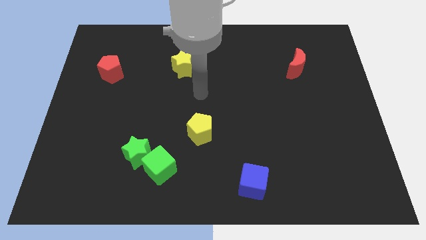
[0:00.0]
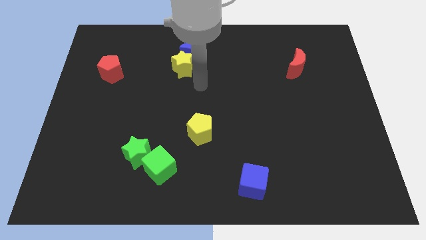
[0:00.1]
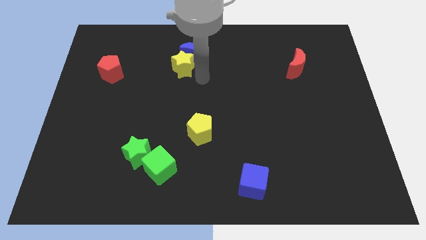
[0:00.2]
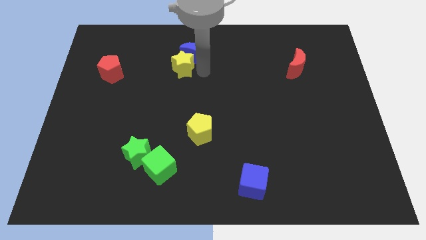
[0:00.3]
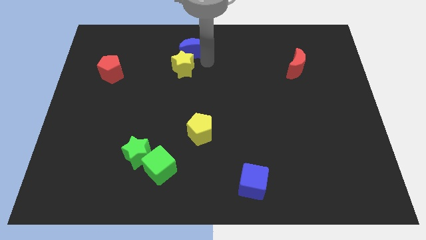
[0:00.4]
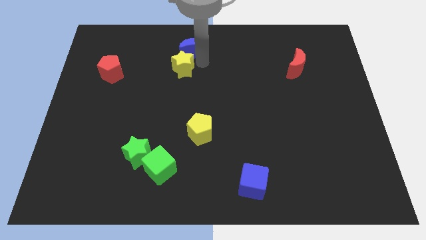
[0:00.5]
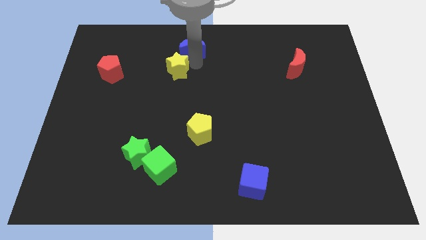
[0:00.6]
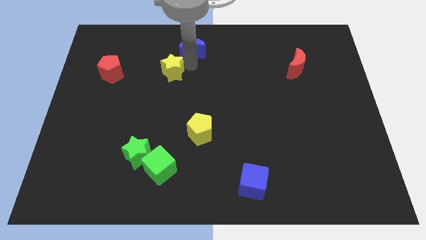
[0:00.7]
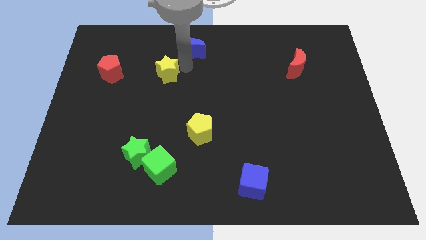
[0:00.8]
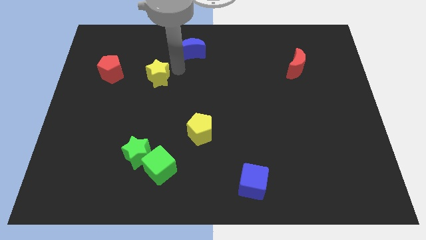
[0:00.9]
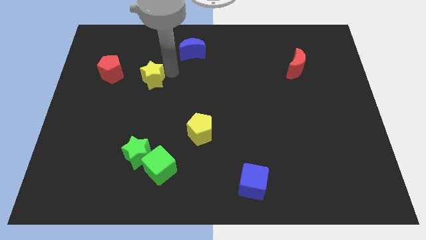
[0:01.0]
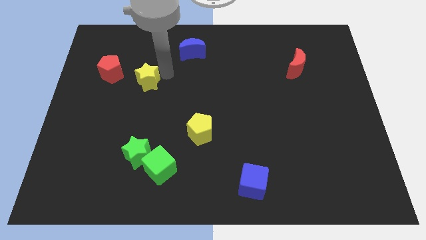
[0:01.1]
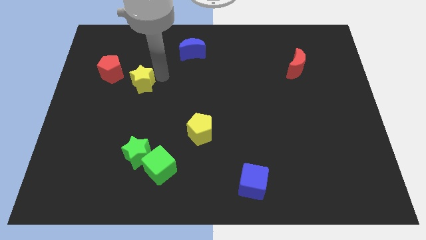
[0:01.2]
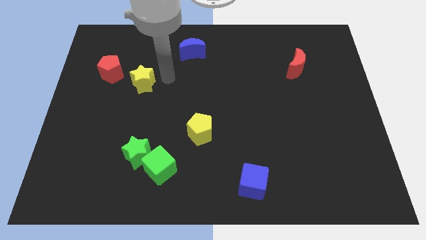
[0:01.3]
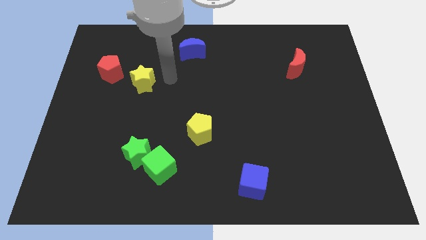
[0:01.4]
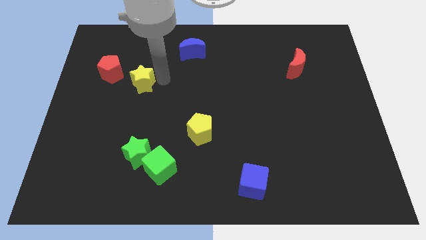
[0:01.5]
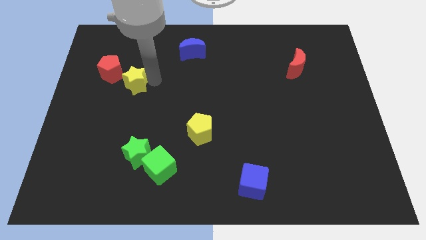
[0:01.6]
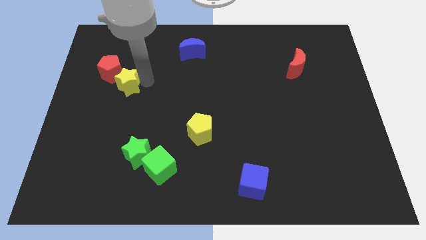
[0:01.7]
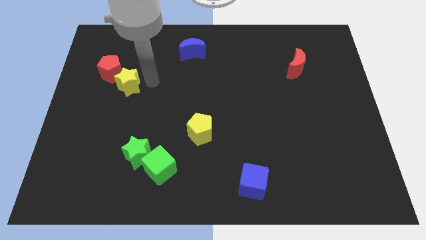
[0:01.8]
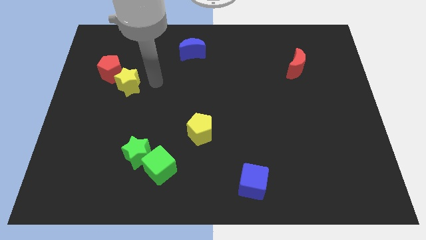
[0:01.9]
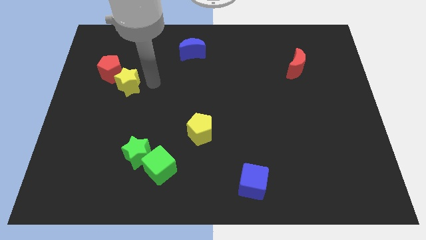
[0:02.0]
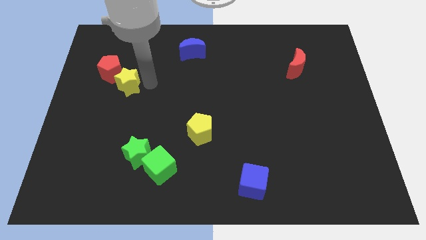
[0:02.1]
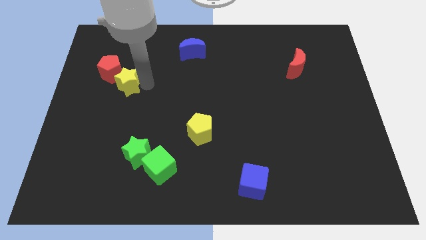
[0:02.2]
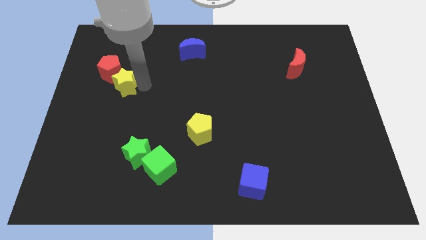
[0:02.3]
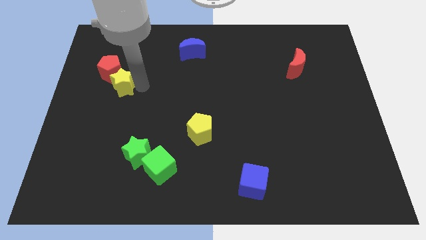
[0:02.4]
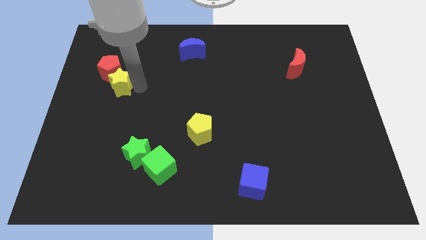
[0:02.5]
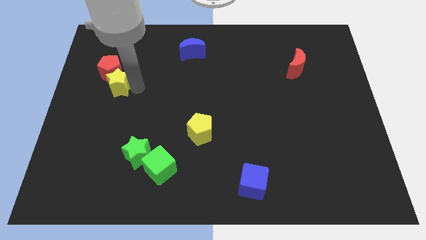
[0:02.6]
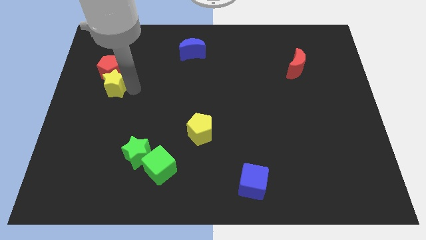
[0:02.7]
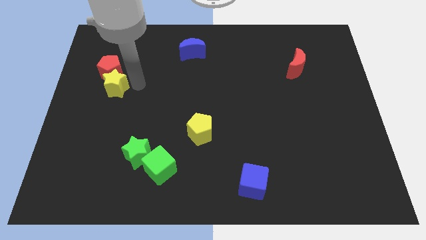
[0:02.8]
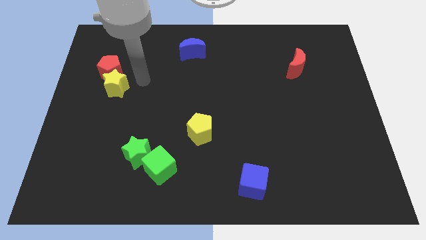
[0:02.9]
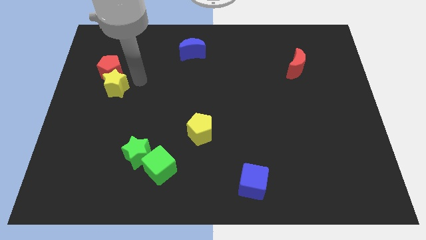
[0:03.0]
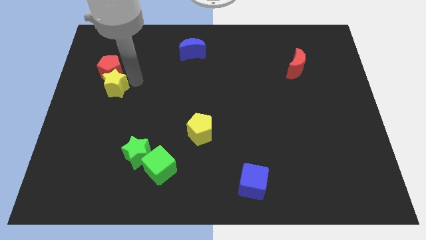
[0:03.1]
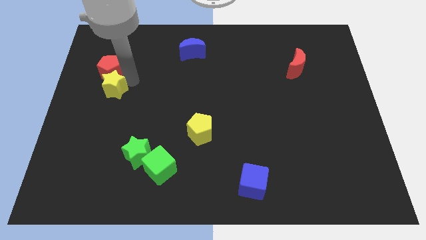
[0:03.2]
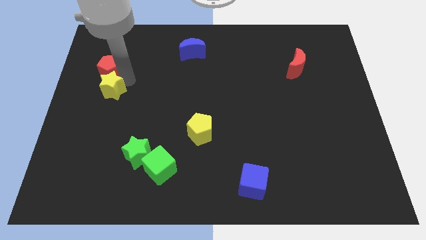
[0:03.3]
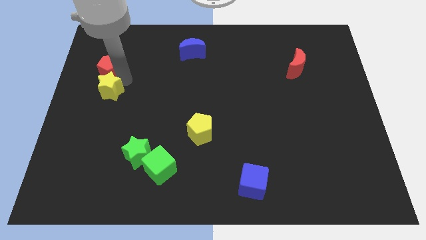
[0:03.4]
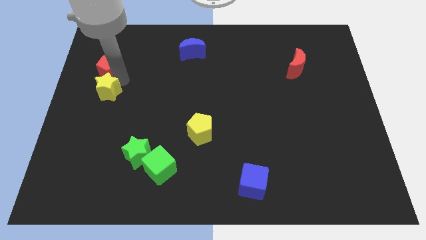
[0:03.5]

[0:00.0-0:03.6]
push the yellow star to the left side of the board

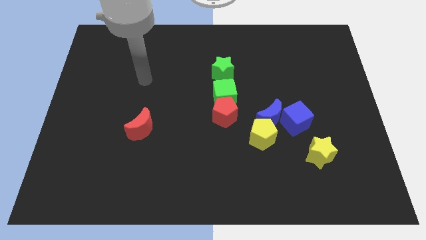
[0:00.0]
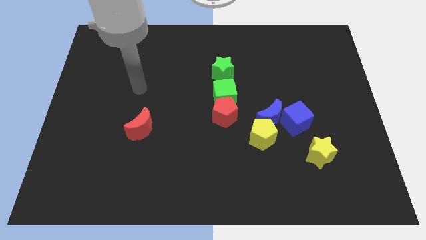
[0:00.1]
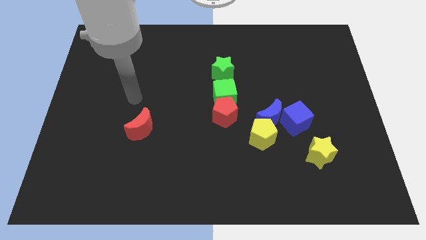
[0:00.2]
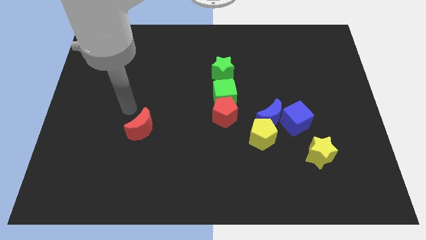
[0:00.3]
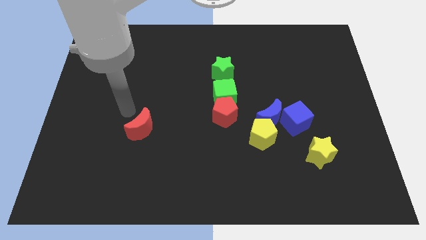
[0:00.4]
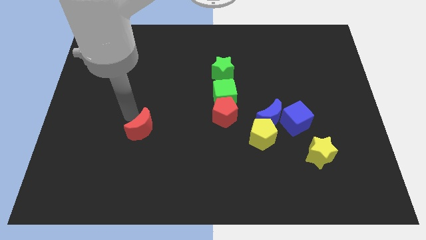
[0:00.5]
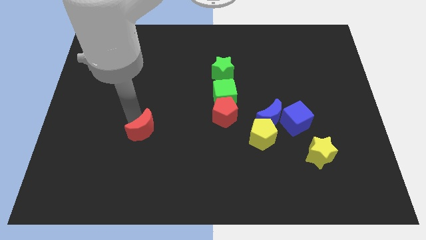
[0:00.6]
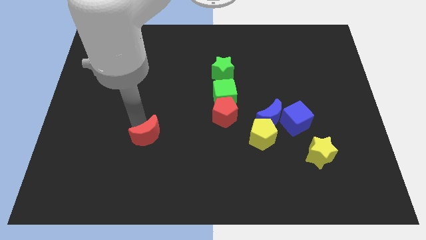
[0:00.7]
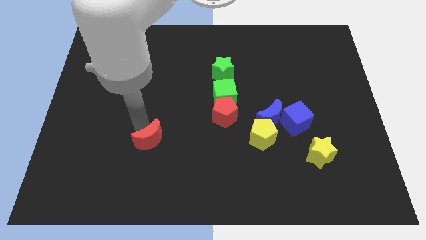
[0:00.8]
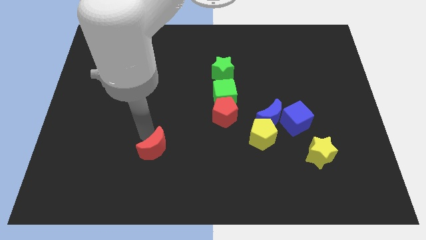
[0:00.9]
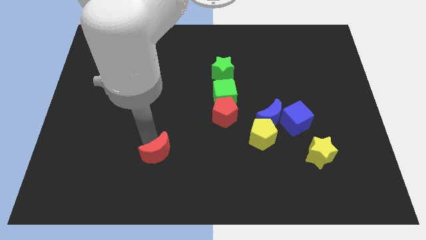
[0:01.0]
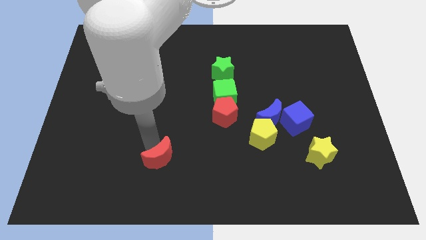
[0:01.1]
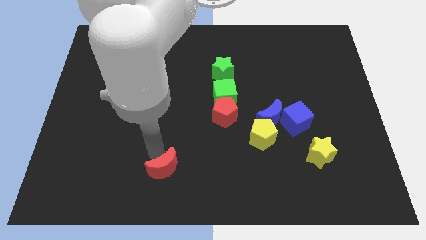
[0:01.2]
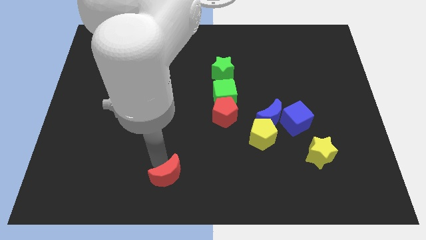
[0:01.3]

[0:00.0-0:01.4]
put the red moon to the bottom

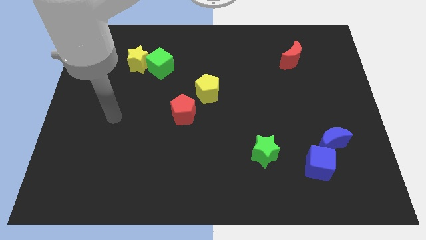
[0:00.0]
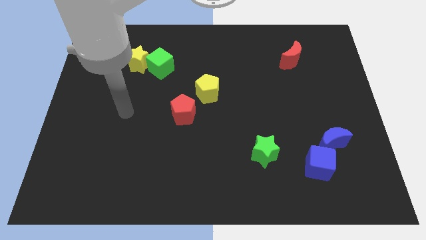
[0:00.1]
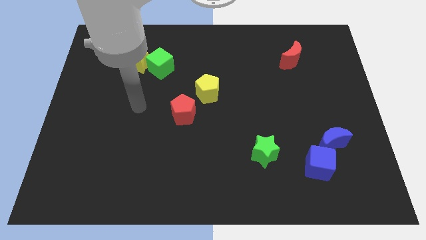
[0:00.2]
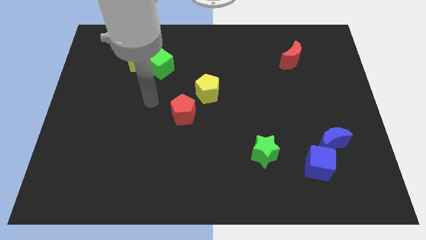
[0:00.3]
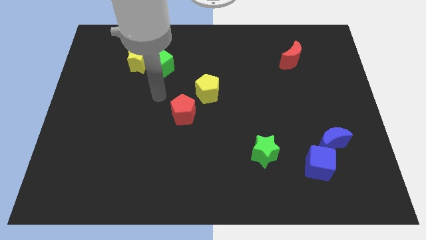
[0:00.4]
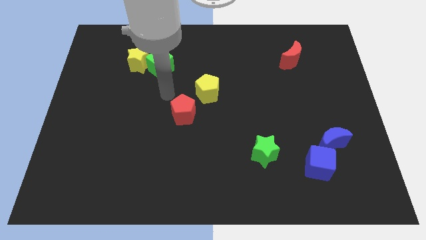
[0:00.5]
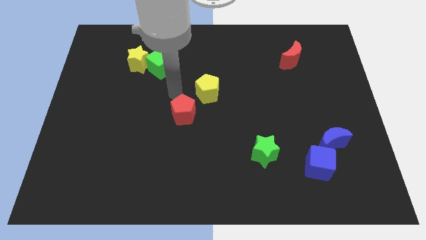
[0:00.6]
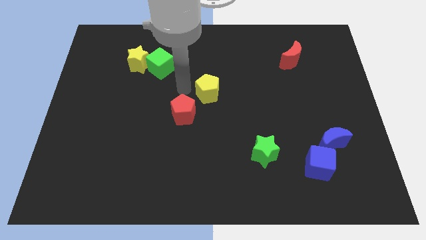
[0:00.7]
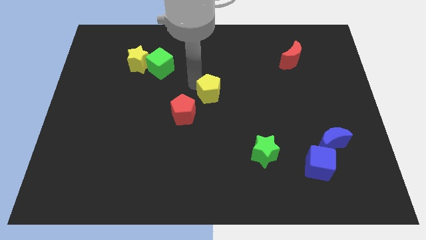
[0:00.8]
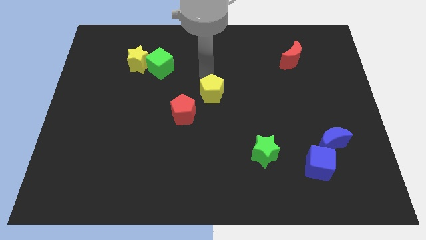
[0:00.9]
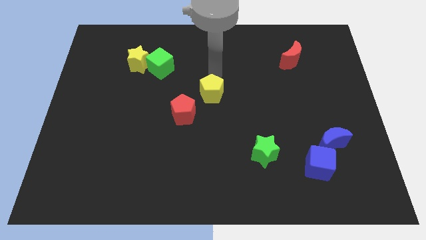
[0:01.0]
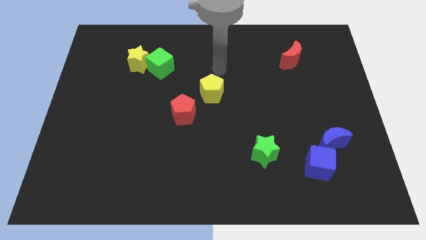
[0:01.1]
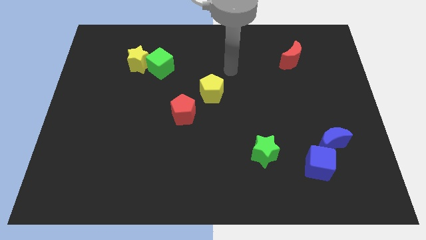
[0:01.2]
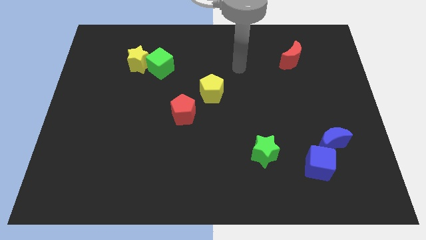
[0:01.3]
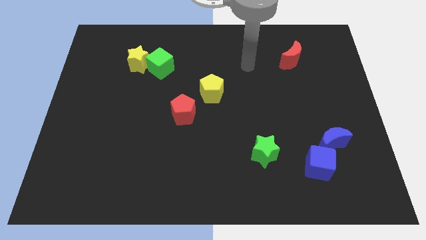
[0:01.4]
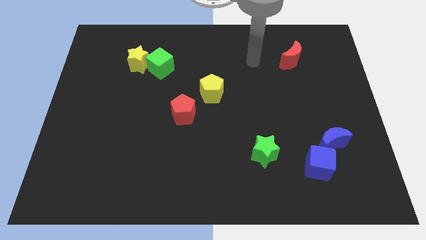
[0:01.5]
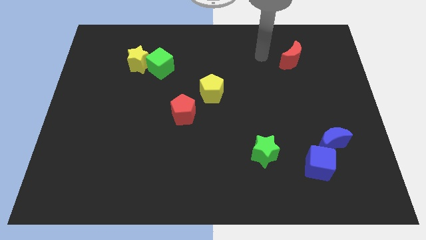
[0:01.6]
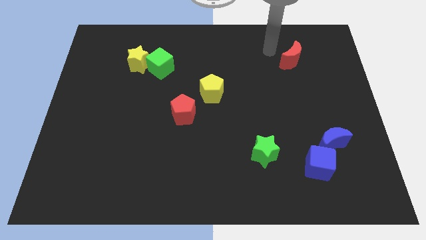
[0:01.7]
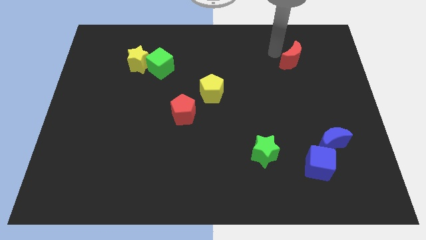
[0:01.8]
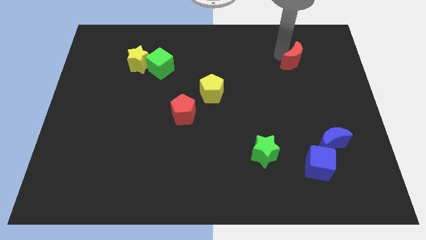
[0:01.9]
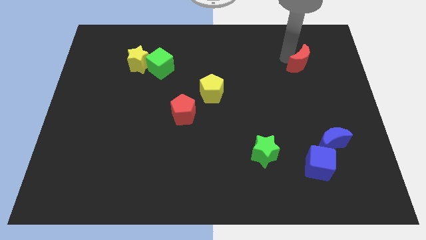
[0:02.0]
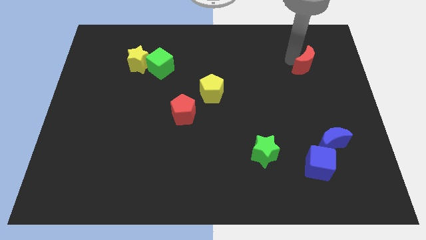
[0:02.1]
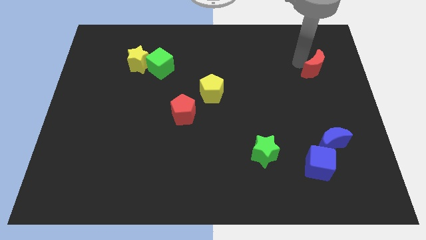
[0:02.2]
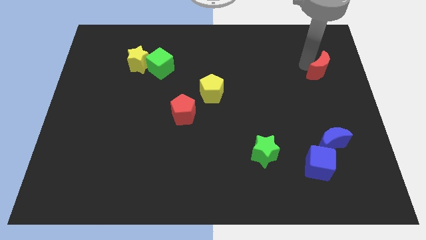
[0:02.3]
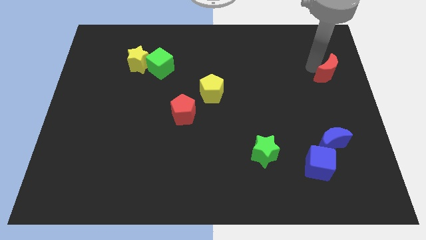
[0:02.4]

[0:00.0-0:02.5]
put the red moon to the center right

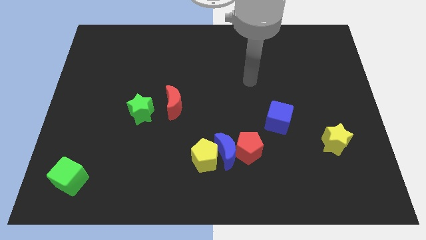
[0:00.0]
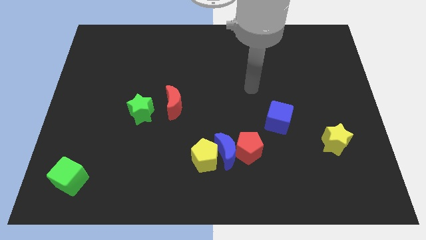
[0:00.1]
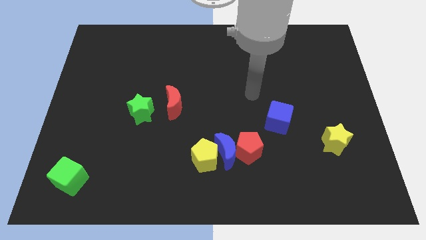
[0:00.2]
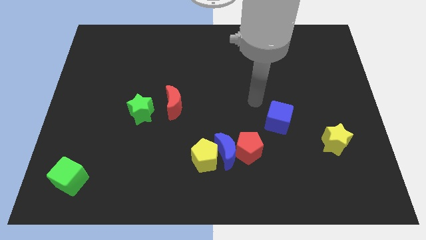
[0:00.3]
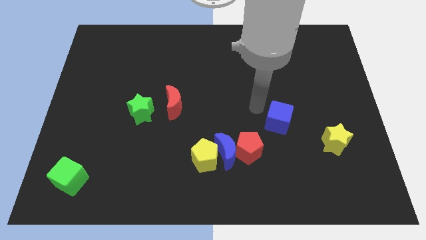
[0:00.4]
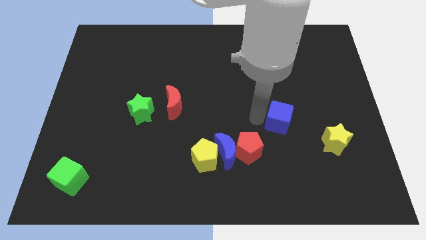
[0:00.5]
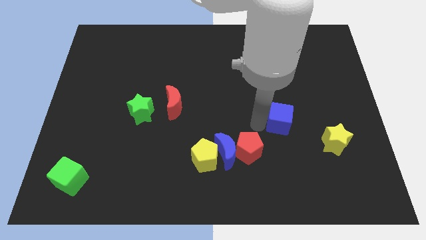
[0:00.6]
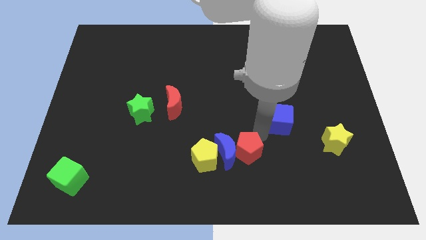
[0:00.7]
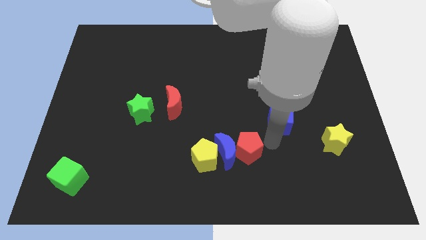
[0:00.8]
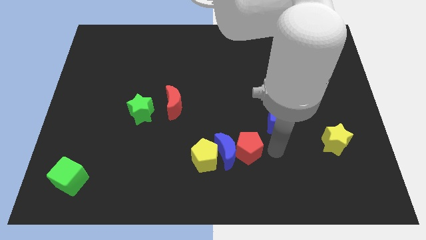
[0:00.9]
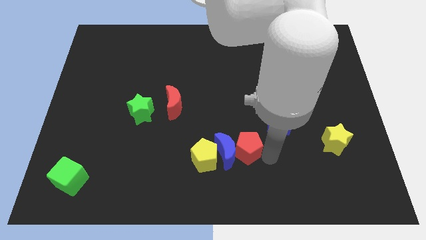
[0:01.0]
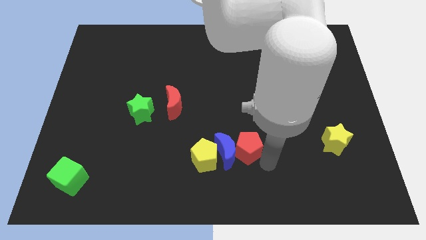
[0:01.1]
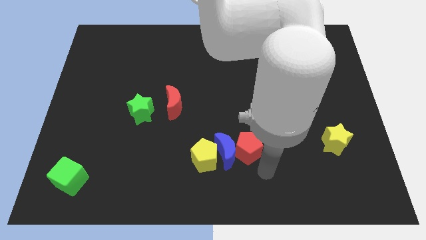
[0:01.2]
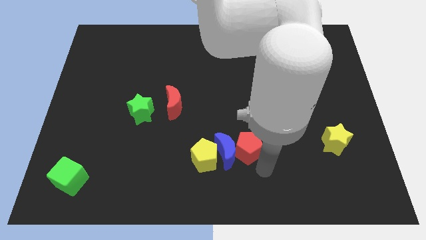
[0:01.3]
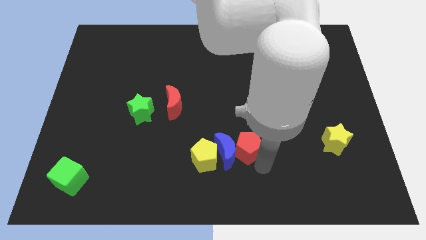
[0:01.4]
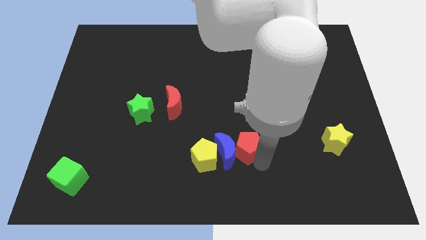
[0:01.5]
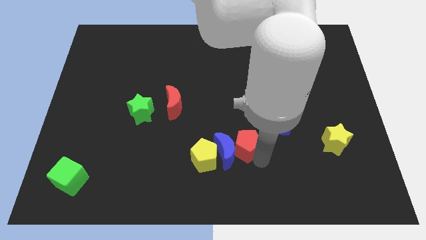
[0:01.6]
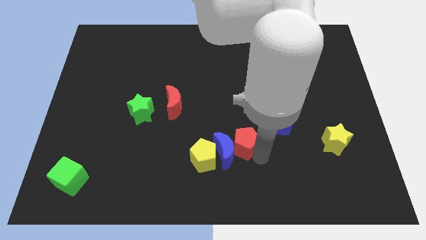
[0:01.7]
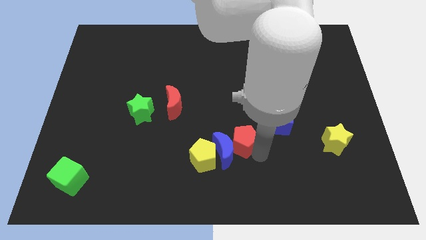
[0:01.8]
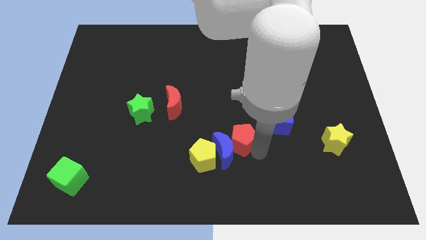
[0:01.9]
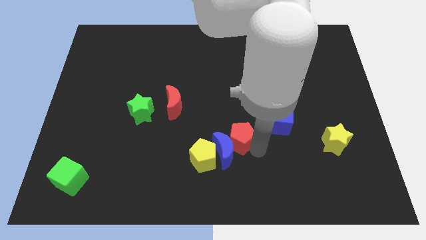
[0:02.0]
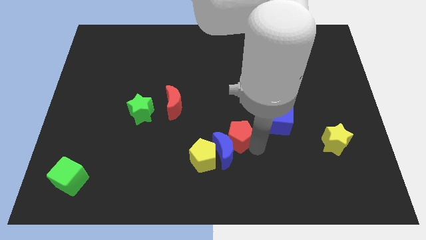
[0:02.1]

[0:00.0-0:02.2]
move the red pentagon to the center of the board
